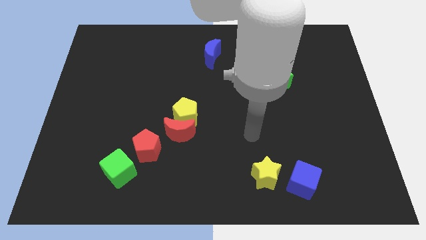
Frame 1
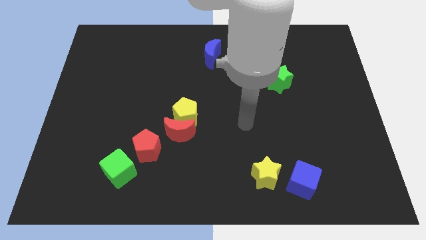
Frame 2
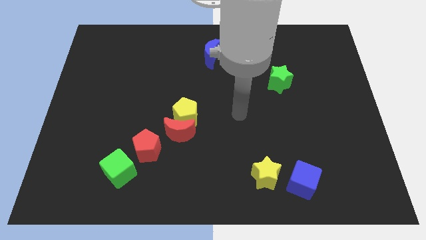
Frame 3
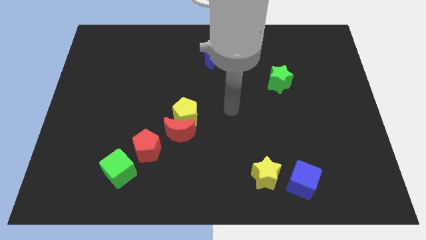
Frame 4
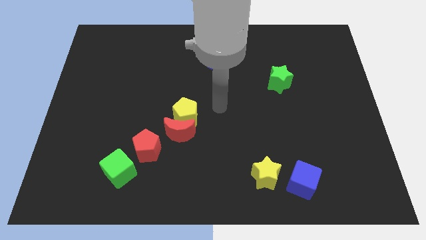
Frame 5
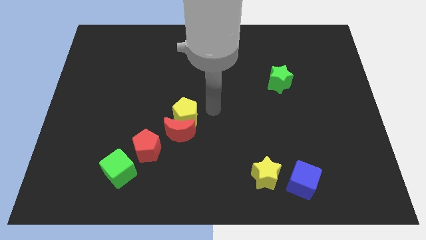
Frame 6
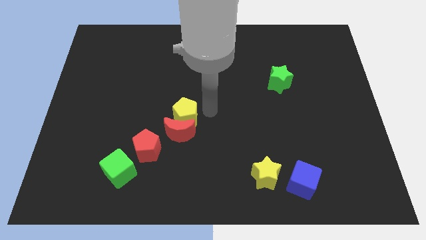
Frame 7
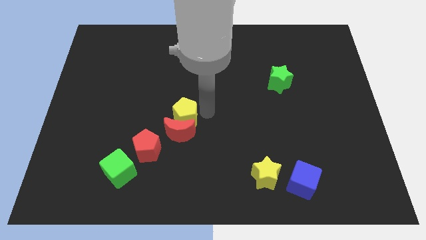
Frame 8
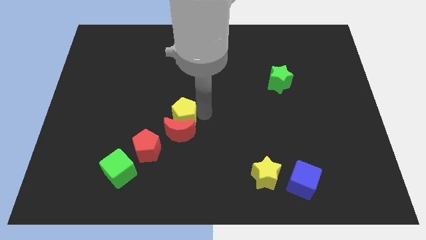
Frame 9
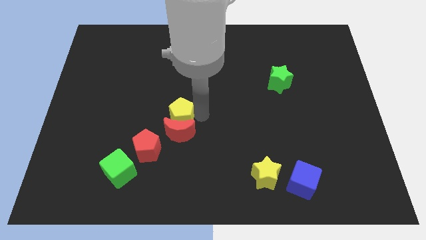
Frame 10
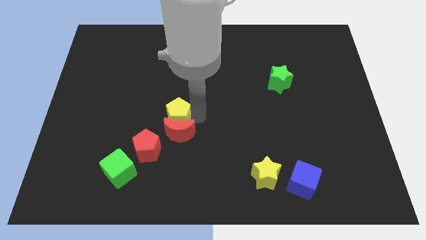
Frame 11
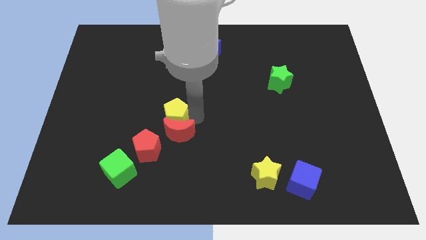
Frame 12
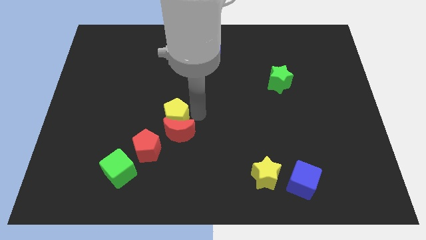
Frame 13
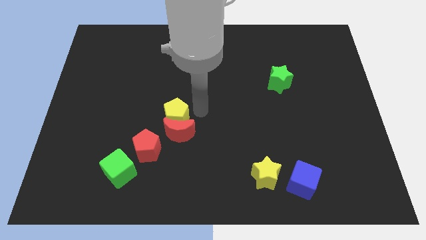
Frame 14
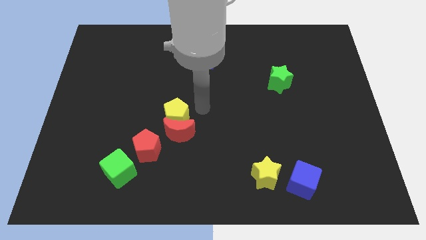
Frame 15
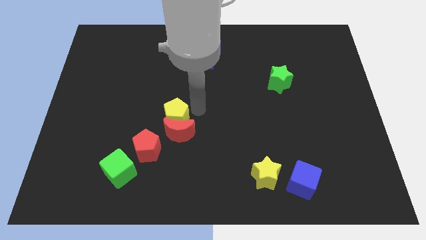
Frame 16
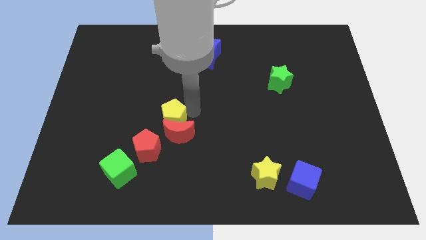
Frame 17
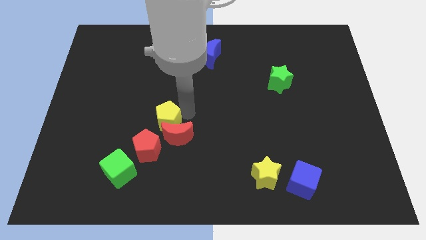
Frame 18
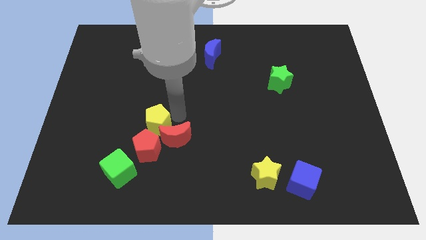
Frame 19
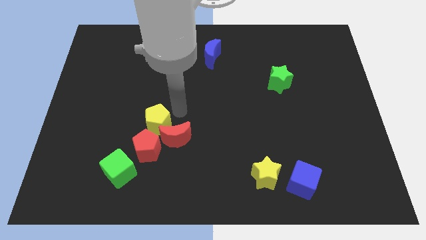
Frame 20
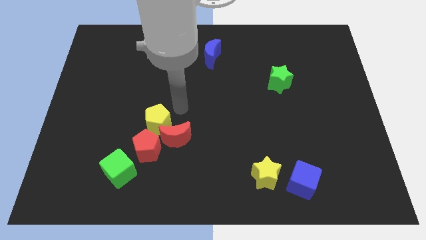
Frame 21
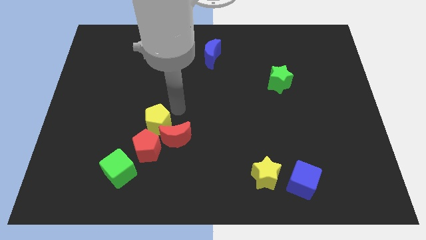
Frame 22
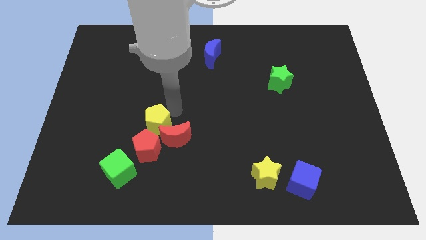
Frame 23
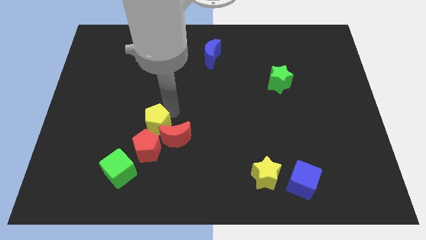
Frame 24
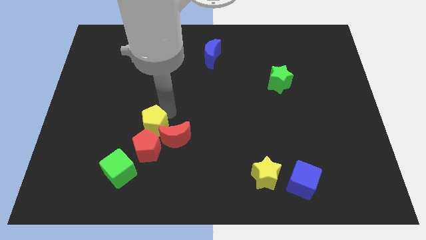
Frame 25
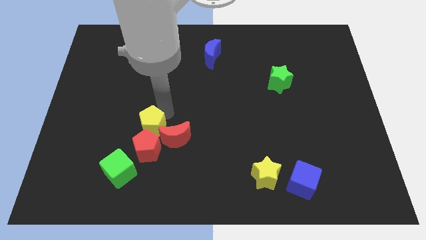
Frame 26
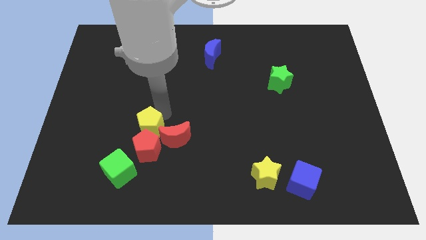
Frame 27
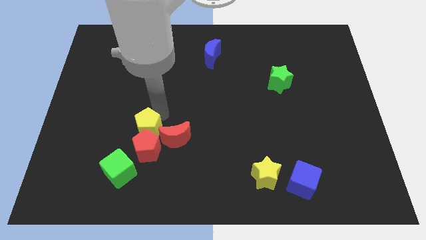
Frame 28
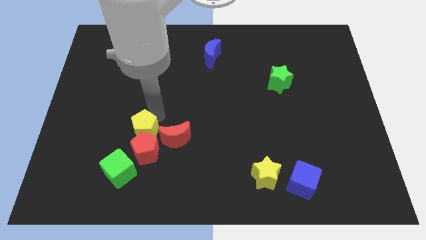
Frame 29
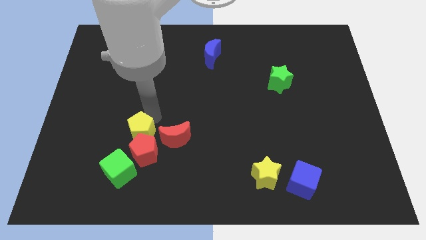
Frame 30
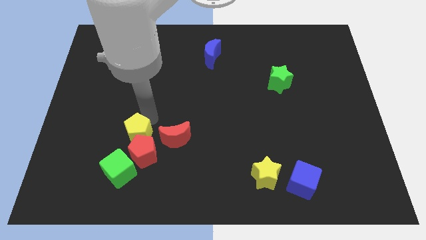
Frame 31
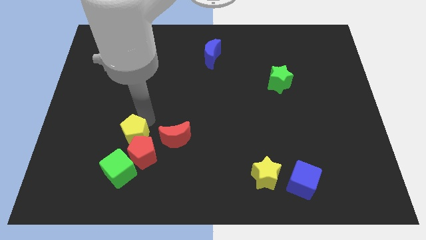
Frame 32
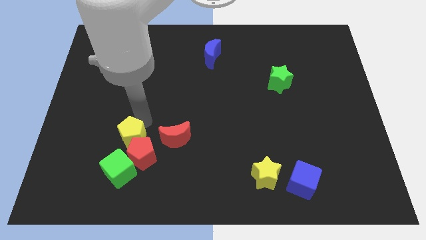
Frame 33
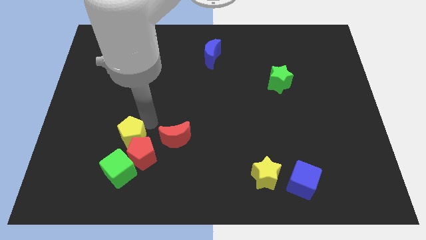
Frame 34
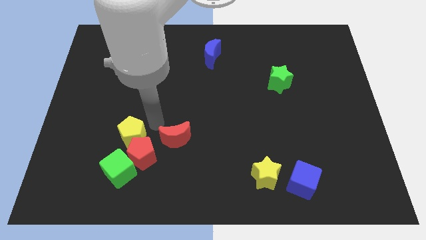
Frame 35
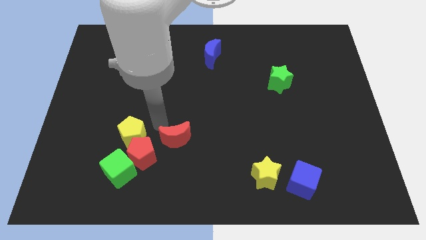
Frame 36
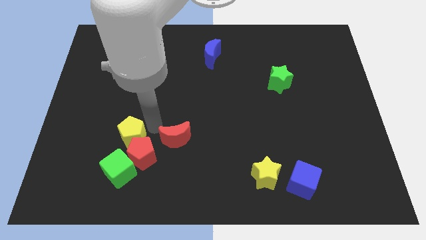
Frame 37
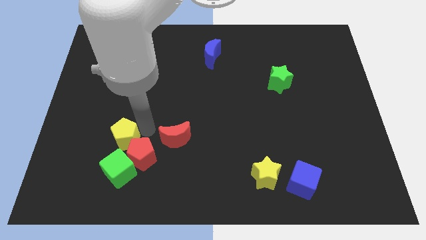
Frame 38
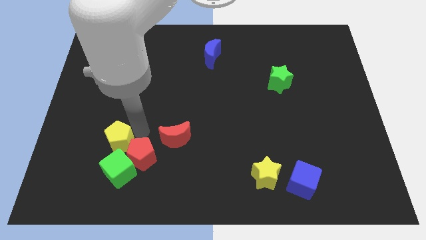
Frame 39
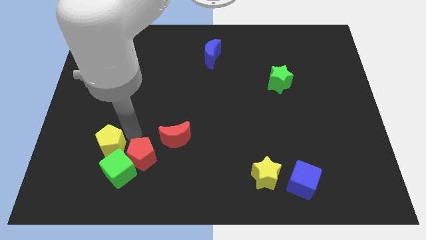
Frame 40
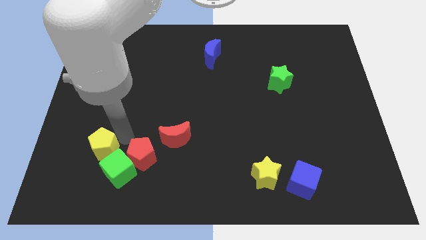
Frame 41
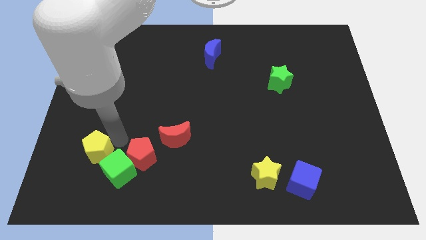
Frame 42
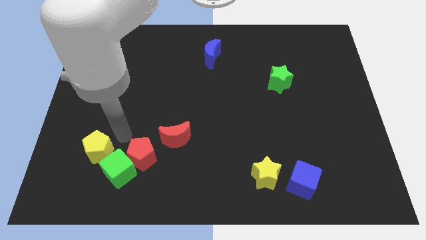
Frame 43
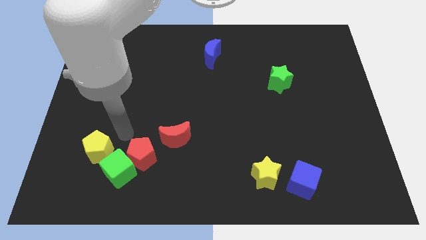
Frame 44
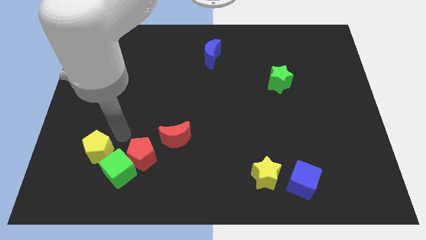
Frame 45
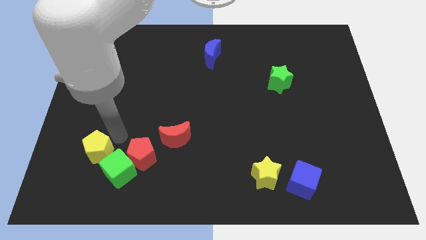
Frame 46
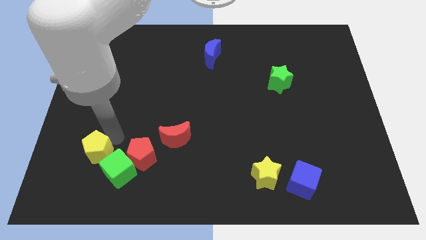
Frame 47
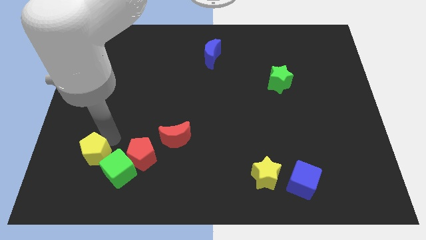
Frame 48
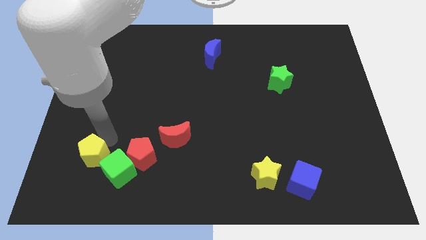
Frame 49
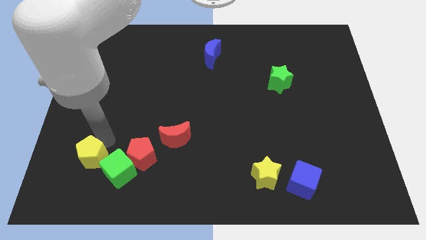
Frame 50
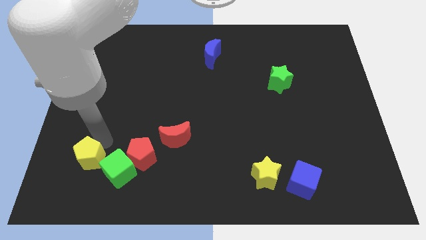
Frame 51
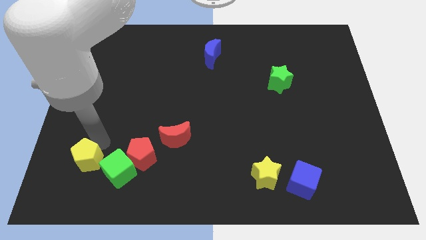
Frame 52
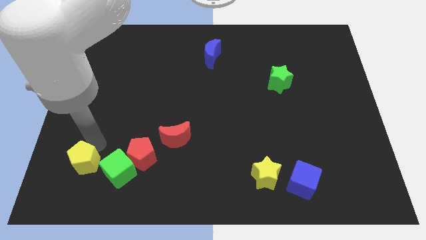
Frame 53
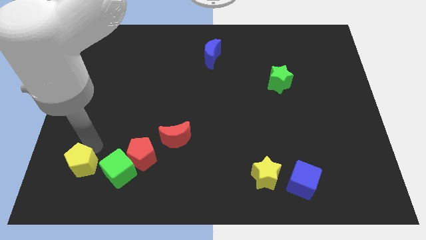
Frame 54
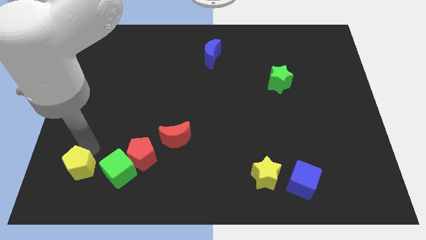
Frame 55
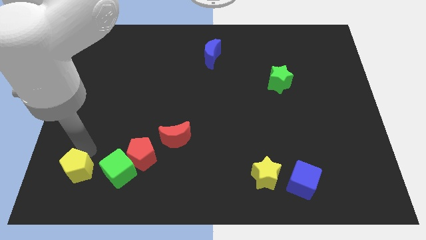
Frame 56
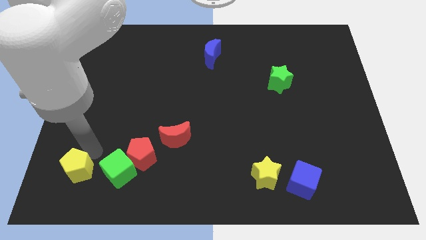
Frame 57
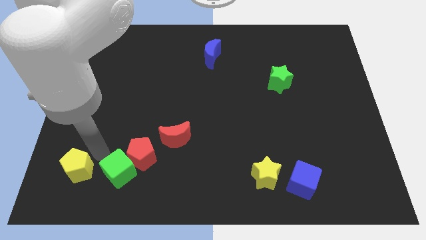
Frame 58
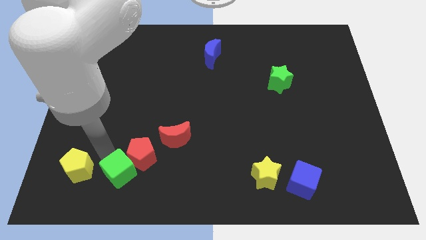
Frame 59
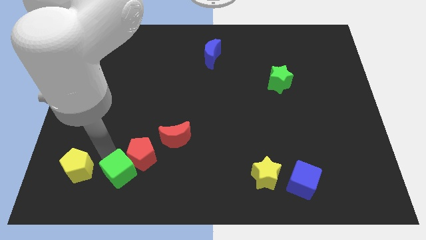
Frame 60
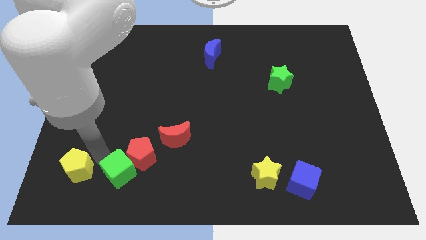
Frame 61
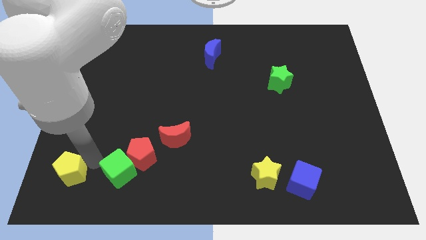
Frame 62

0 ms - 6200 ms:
put the yellow pentagon to the bottom left of the board
